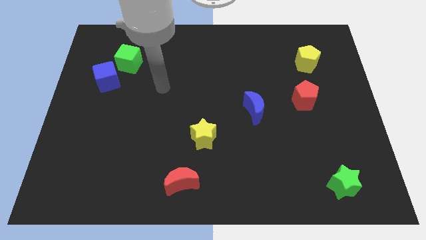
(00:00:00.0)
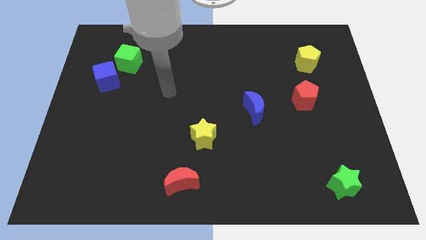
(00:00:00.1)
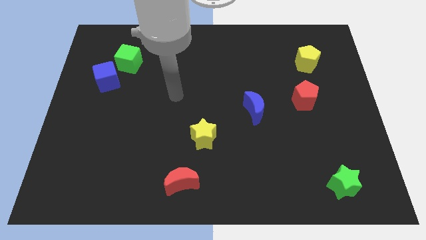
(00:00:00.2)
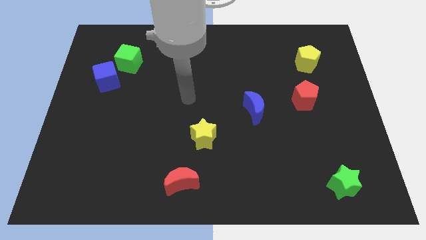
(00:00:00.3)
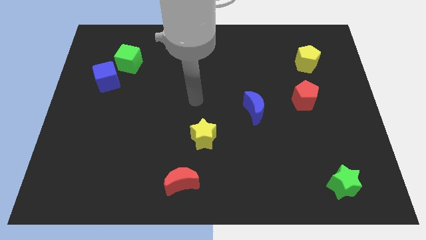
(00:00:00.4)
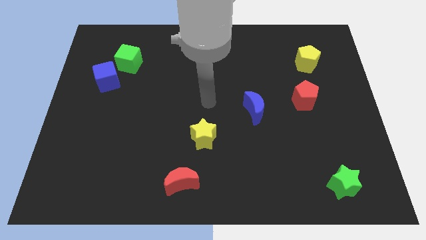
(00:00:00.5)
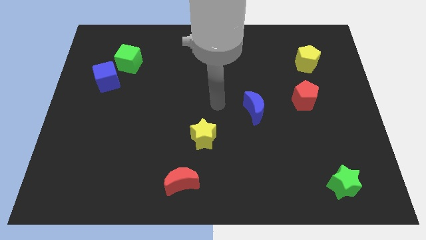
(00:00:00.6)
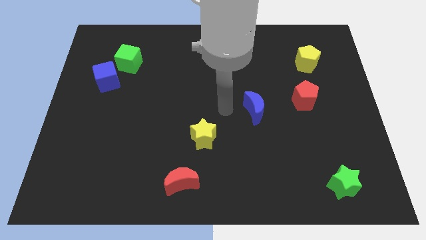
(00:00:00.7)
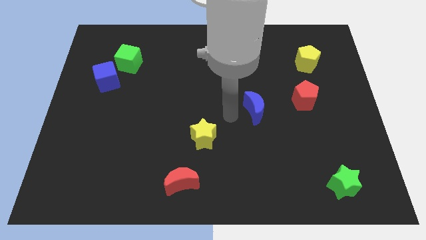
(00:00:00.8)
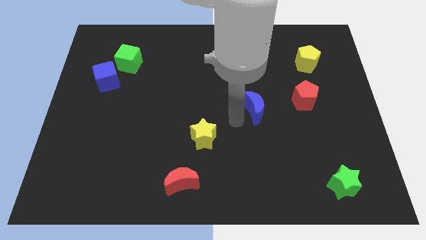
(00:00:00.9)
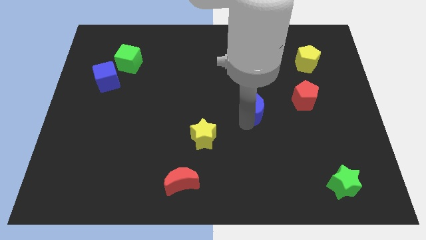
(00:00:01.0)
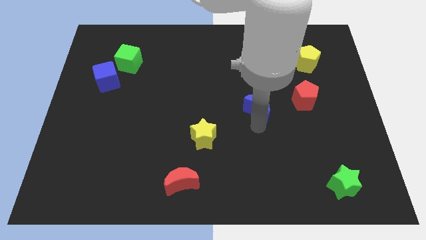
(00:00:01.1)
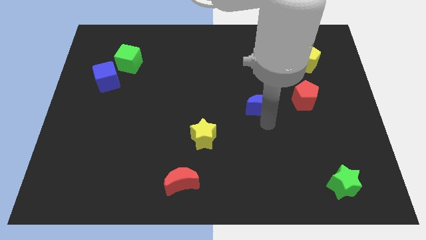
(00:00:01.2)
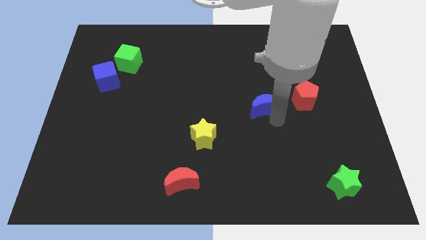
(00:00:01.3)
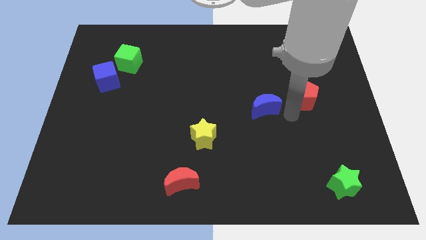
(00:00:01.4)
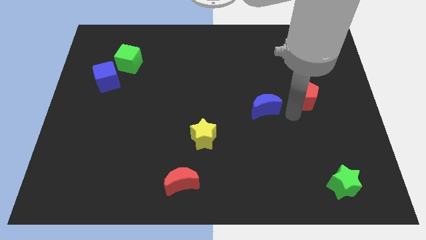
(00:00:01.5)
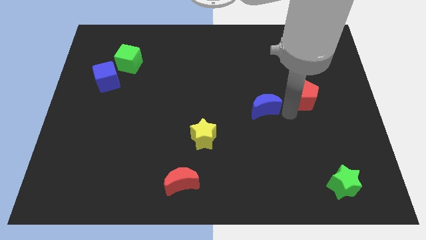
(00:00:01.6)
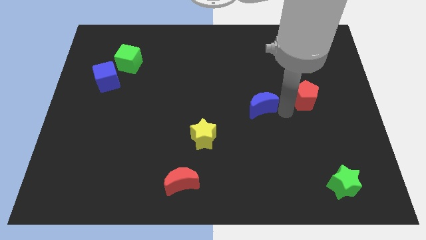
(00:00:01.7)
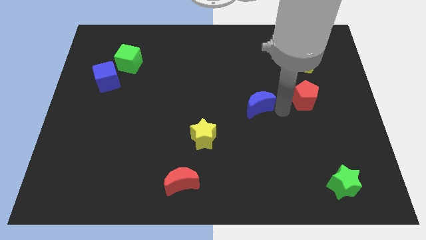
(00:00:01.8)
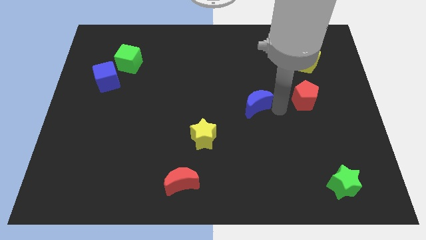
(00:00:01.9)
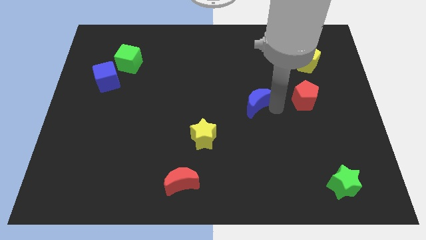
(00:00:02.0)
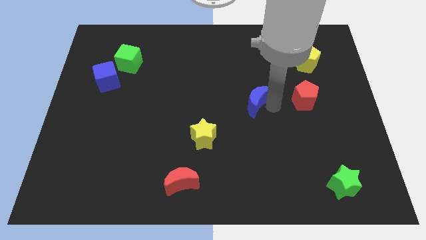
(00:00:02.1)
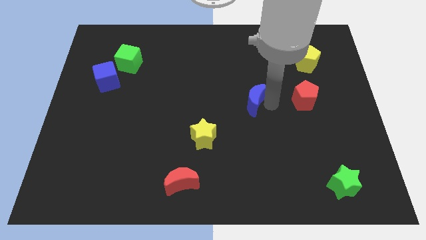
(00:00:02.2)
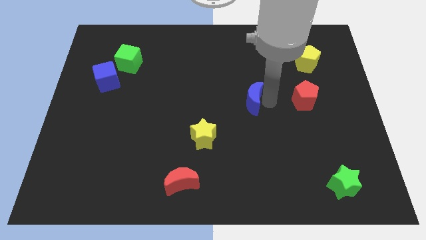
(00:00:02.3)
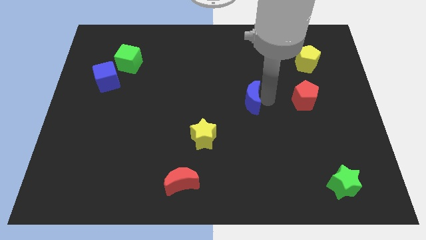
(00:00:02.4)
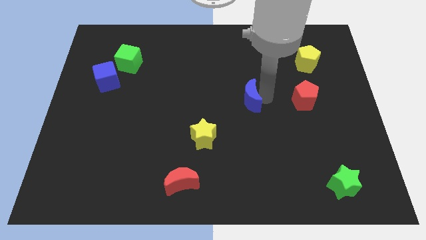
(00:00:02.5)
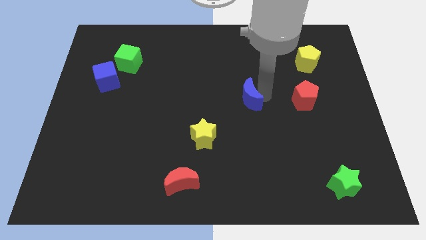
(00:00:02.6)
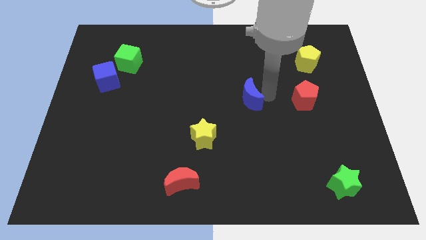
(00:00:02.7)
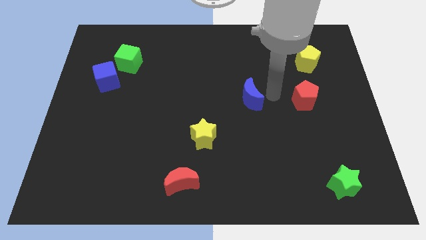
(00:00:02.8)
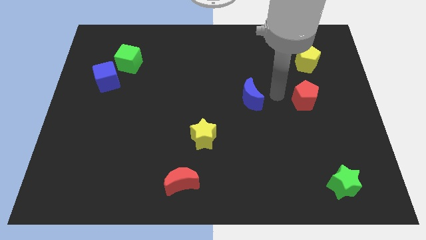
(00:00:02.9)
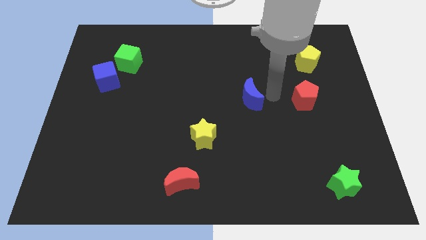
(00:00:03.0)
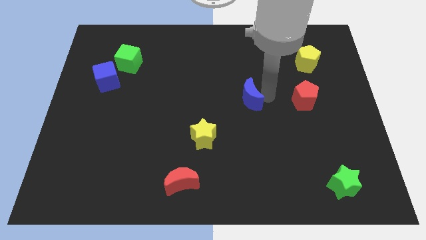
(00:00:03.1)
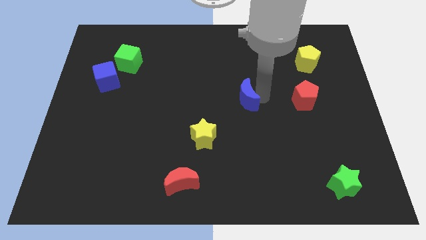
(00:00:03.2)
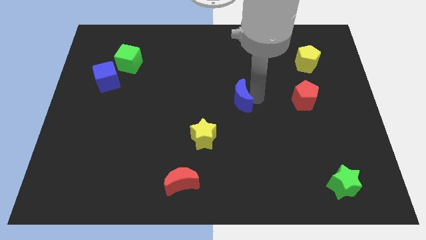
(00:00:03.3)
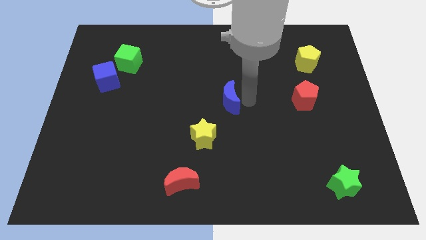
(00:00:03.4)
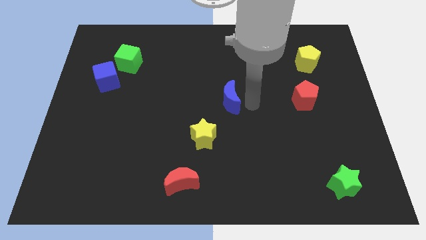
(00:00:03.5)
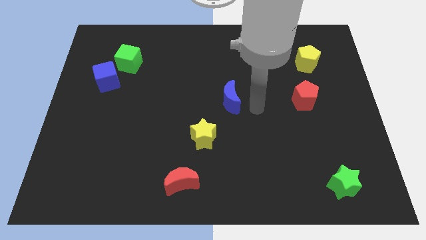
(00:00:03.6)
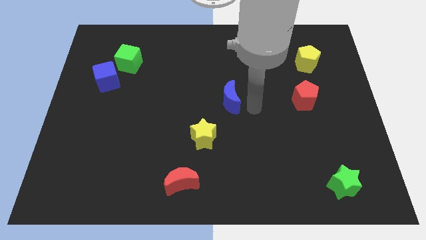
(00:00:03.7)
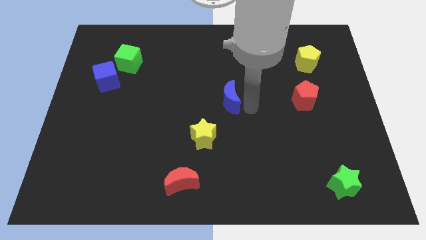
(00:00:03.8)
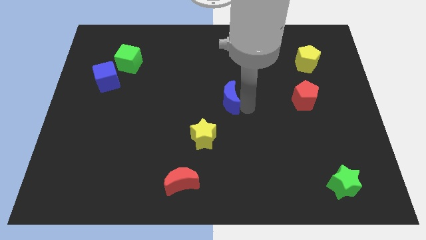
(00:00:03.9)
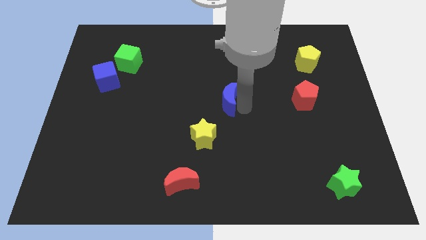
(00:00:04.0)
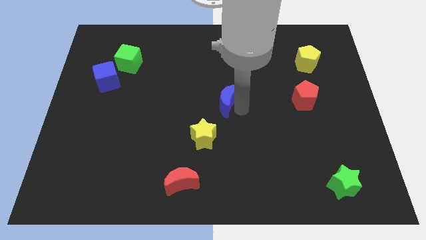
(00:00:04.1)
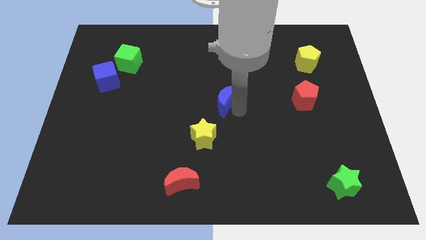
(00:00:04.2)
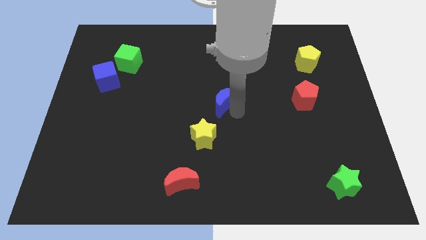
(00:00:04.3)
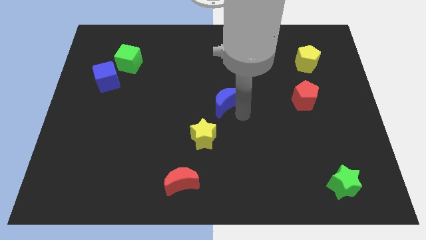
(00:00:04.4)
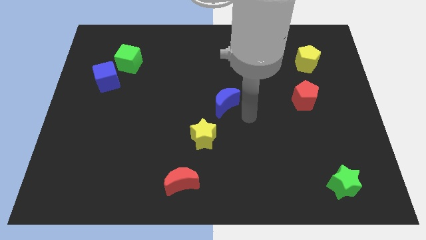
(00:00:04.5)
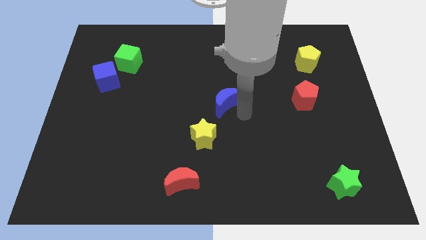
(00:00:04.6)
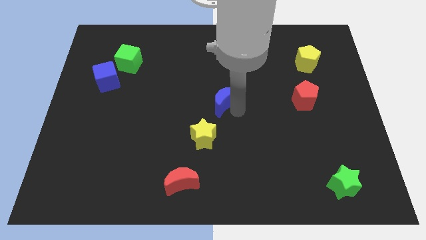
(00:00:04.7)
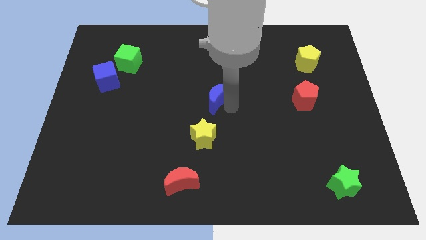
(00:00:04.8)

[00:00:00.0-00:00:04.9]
slightly push the blue moon diagonally up and to the left

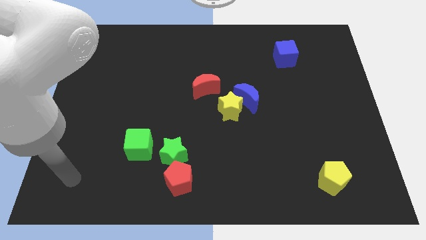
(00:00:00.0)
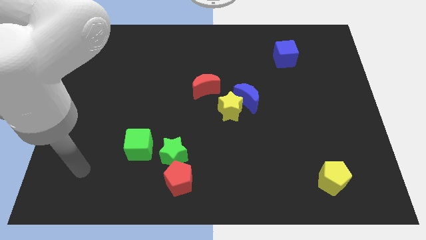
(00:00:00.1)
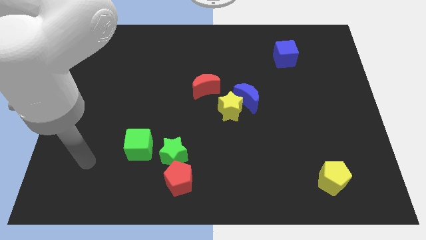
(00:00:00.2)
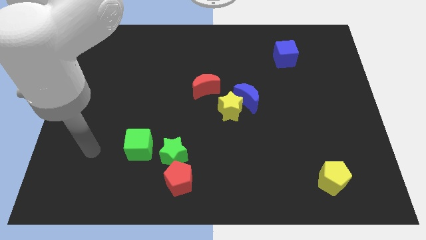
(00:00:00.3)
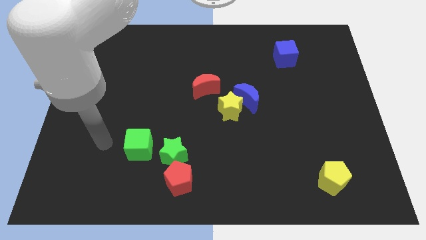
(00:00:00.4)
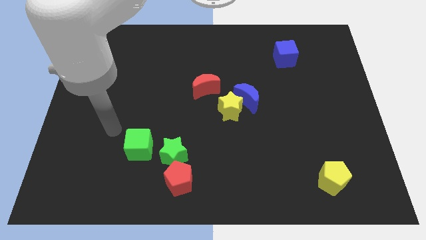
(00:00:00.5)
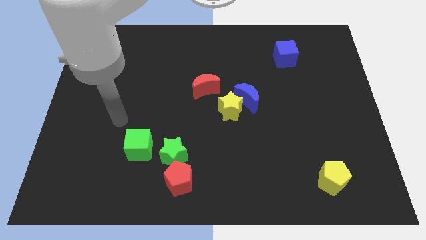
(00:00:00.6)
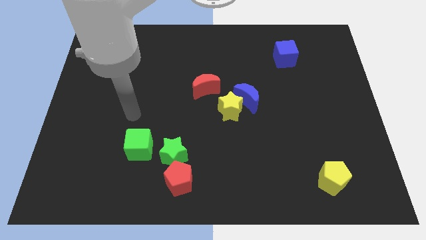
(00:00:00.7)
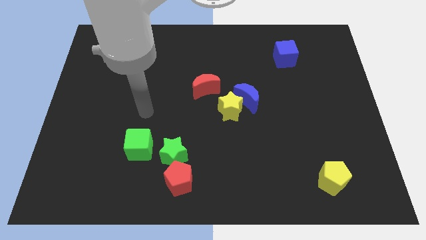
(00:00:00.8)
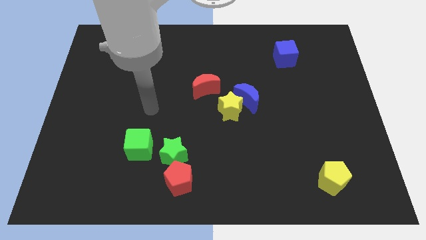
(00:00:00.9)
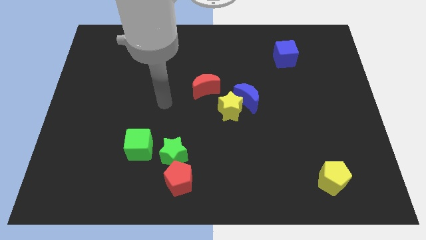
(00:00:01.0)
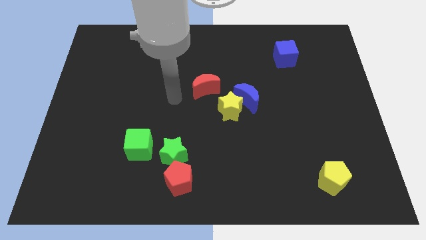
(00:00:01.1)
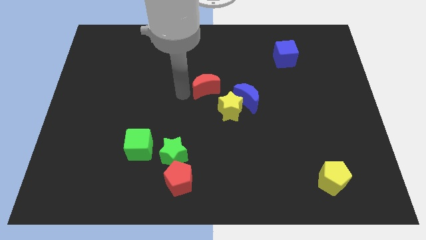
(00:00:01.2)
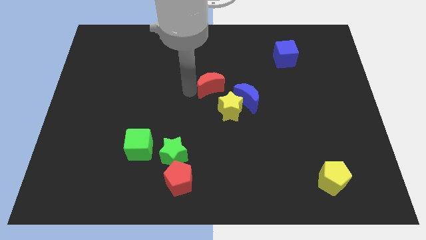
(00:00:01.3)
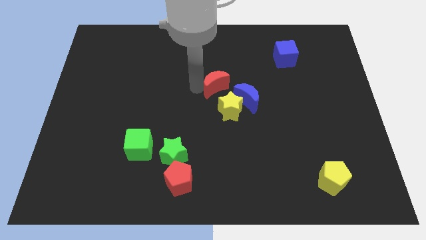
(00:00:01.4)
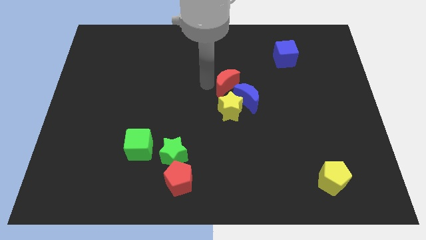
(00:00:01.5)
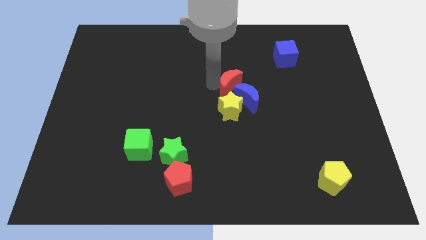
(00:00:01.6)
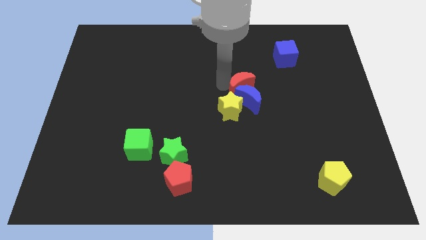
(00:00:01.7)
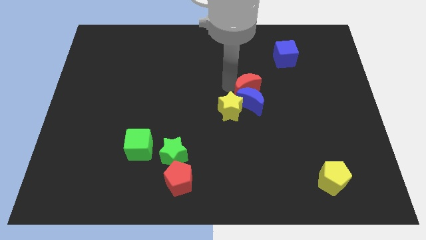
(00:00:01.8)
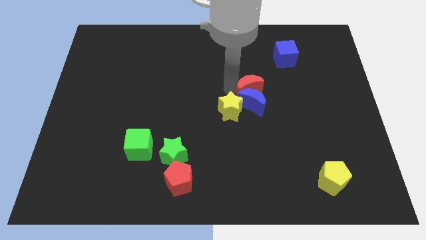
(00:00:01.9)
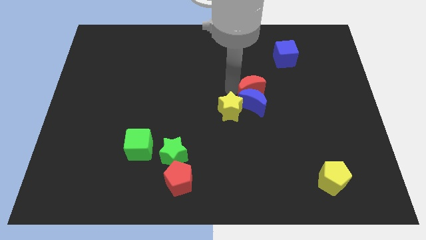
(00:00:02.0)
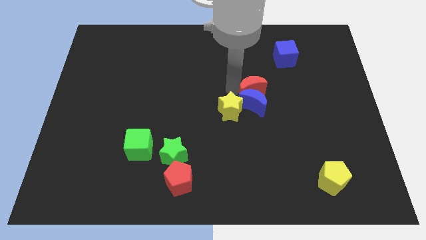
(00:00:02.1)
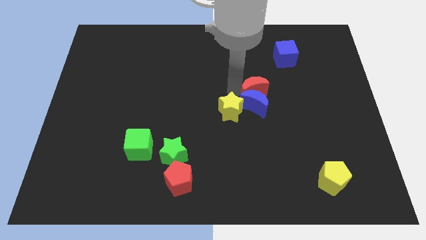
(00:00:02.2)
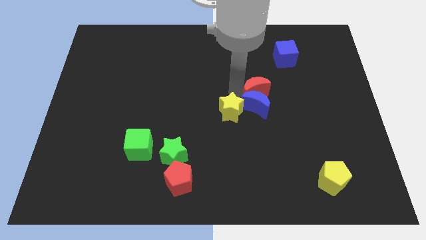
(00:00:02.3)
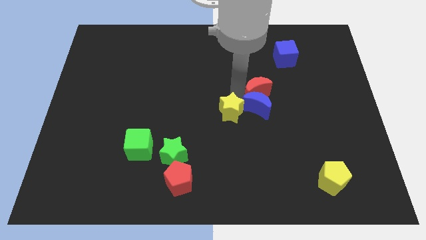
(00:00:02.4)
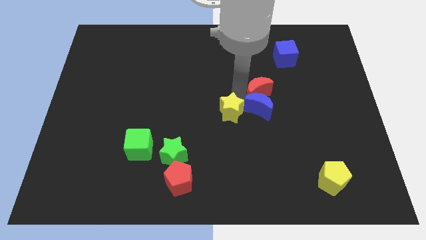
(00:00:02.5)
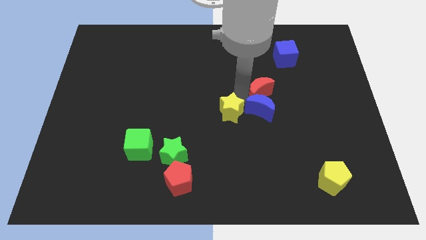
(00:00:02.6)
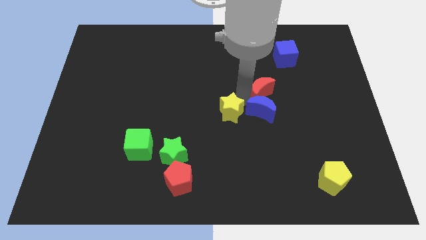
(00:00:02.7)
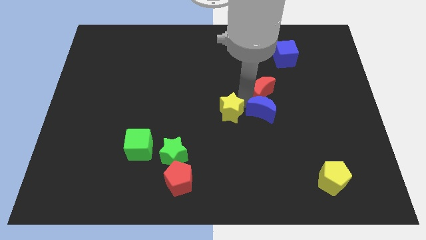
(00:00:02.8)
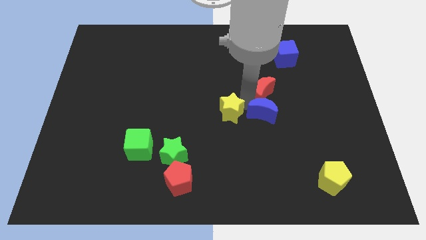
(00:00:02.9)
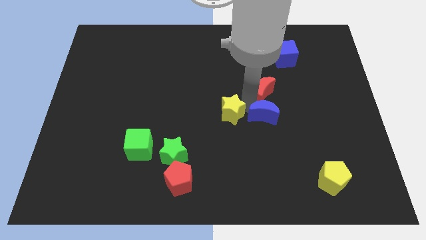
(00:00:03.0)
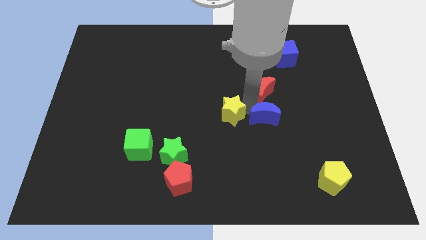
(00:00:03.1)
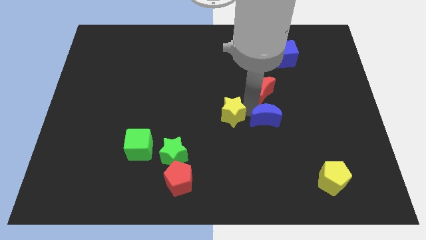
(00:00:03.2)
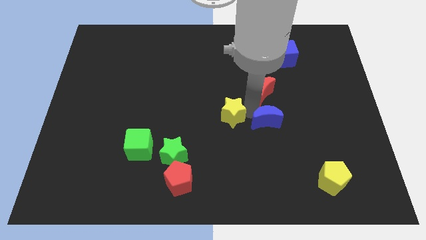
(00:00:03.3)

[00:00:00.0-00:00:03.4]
slightly push the blue moon downwards and to the right
